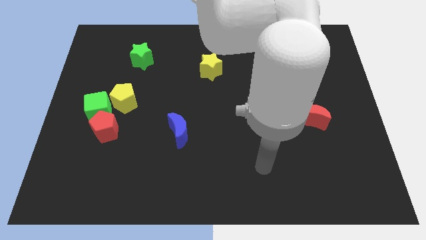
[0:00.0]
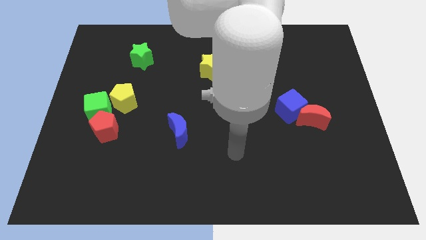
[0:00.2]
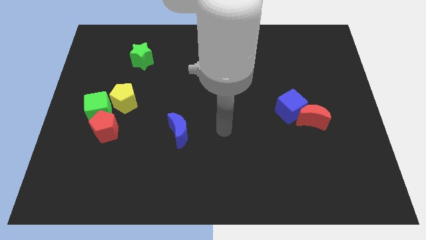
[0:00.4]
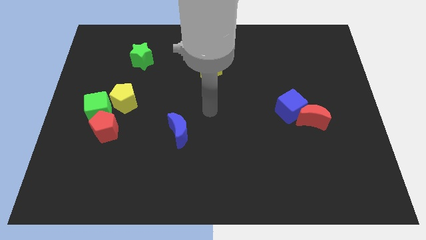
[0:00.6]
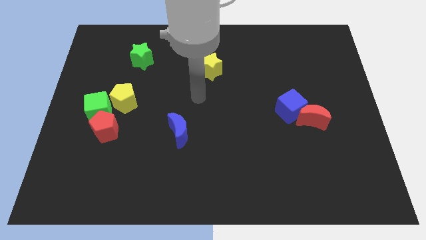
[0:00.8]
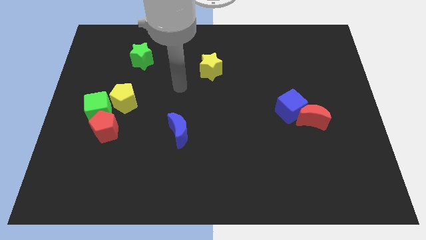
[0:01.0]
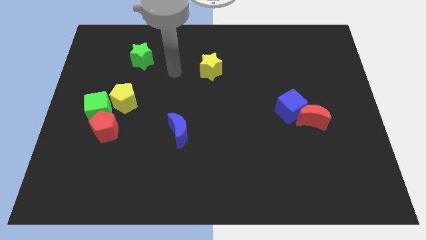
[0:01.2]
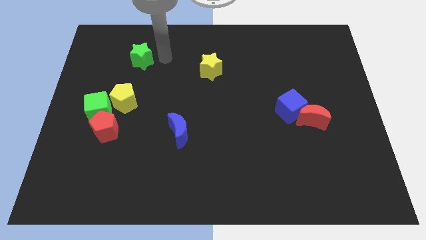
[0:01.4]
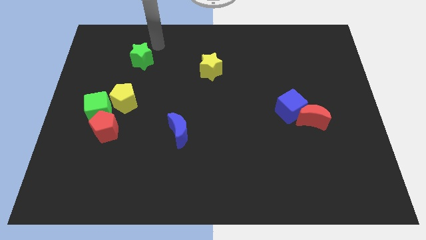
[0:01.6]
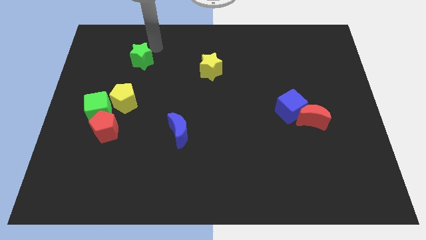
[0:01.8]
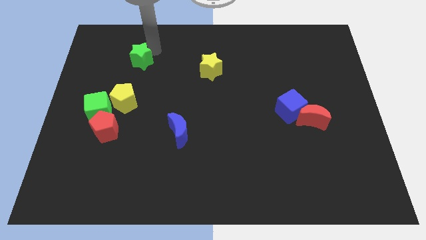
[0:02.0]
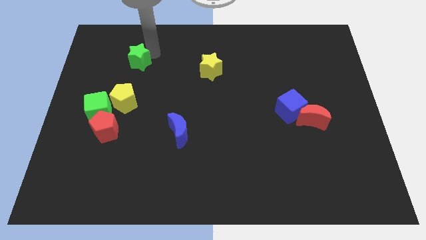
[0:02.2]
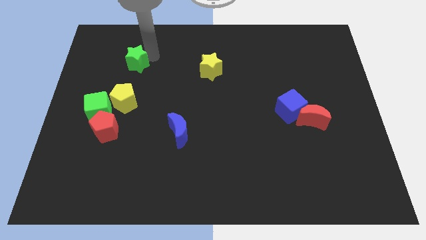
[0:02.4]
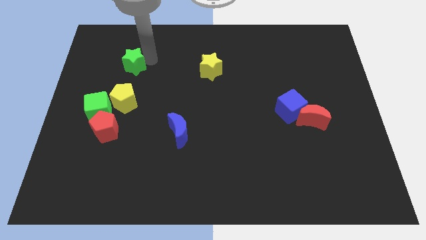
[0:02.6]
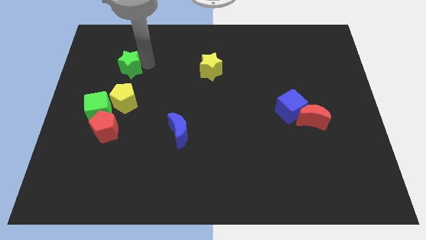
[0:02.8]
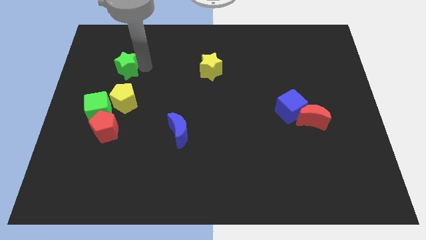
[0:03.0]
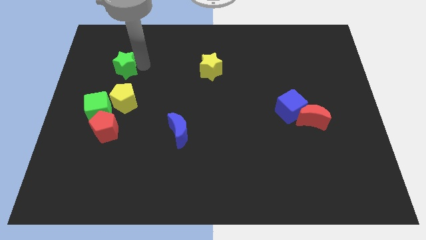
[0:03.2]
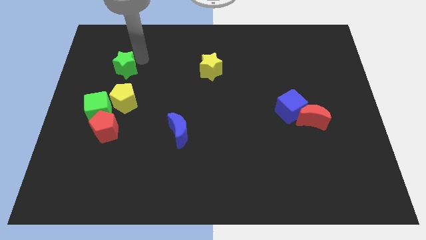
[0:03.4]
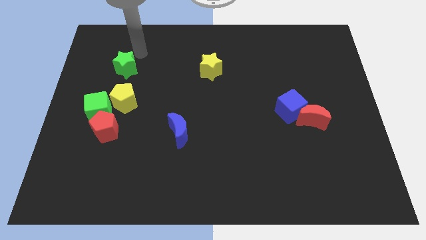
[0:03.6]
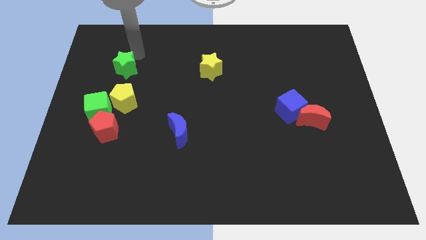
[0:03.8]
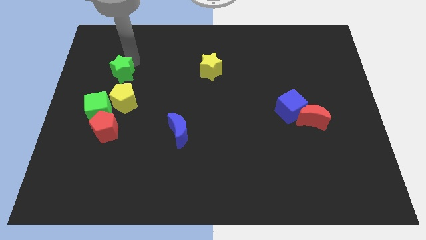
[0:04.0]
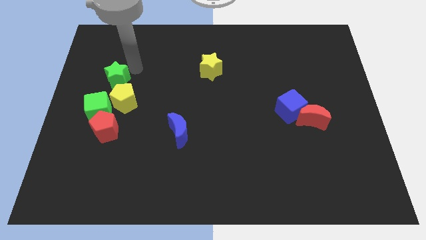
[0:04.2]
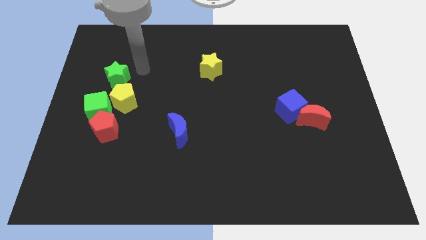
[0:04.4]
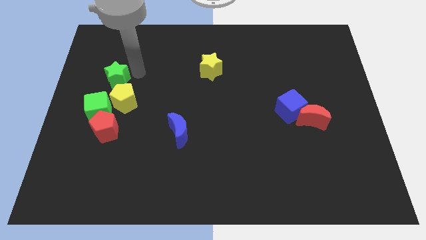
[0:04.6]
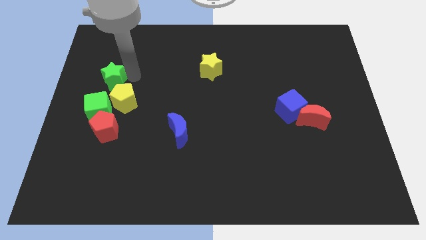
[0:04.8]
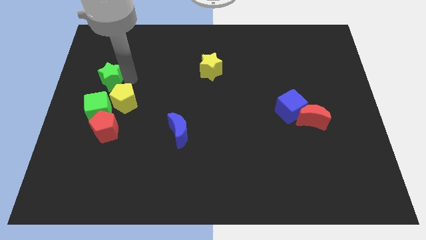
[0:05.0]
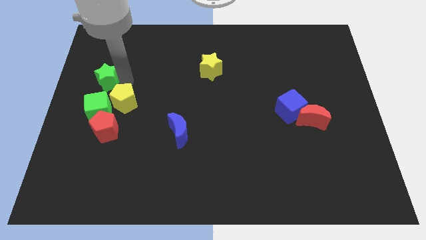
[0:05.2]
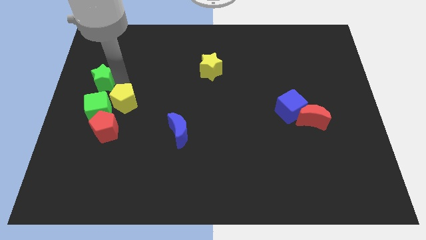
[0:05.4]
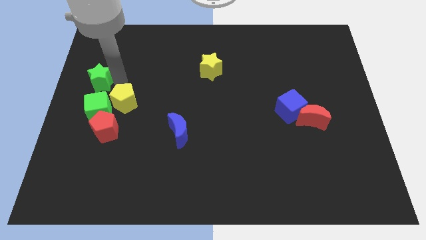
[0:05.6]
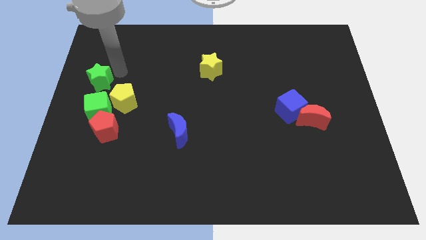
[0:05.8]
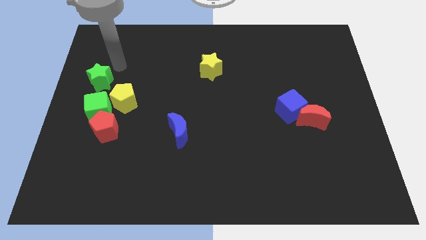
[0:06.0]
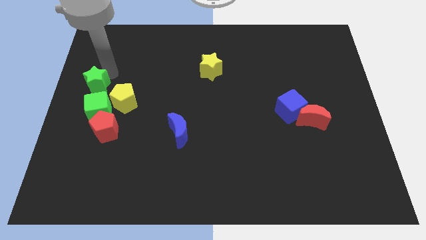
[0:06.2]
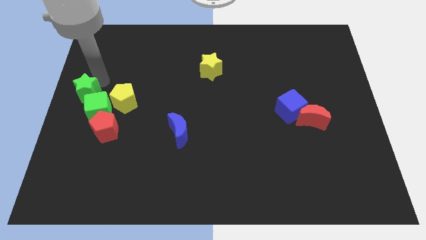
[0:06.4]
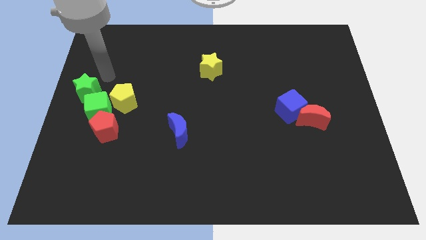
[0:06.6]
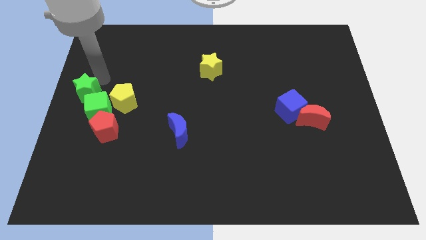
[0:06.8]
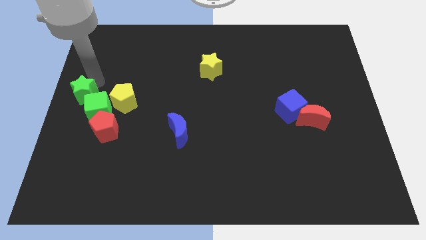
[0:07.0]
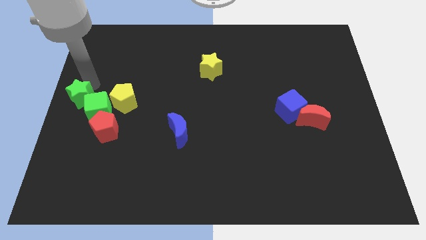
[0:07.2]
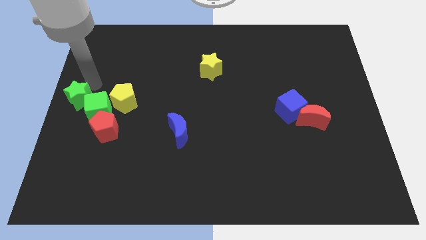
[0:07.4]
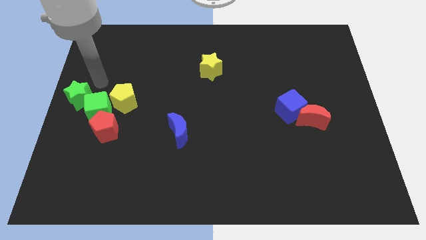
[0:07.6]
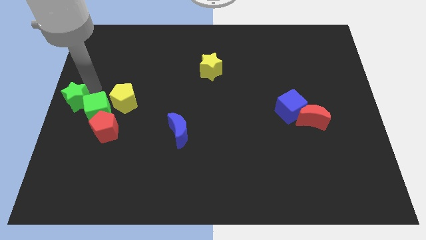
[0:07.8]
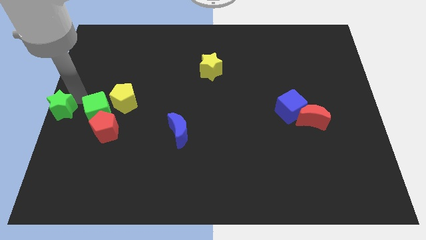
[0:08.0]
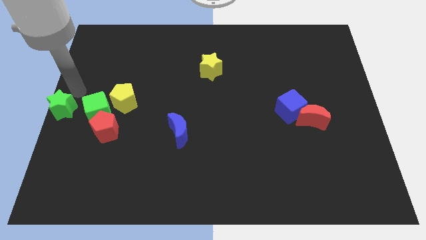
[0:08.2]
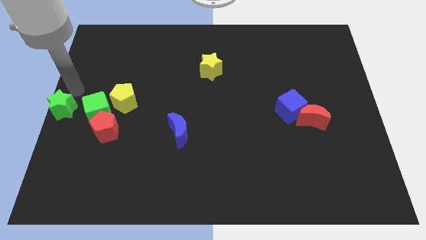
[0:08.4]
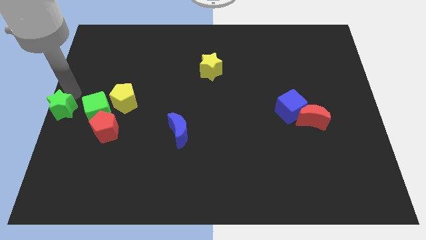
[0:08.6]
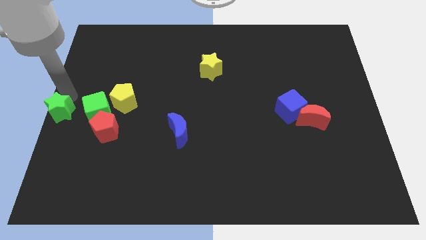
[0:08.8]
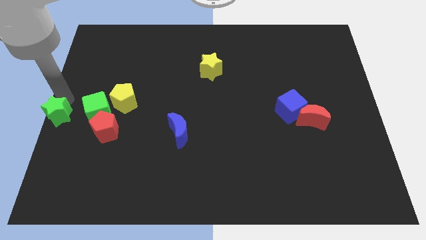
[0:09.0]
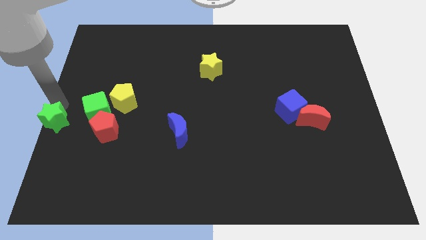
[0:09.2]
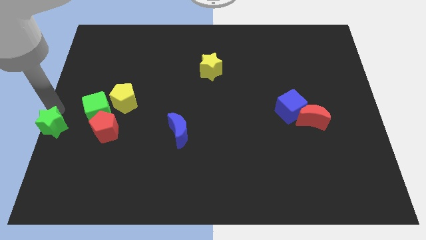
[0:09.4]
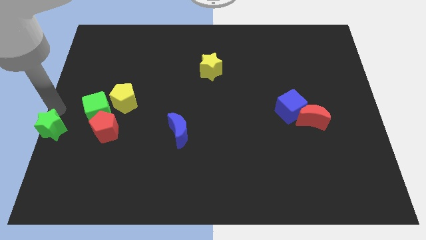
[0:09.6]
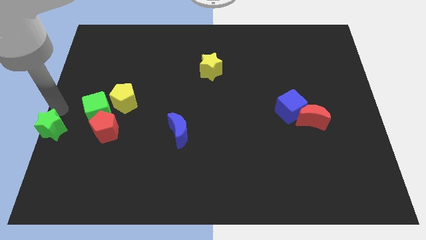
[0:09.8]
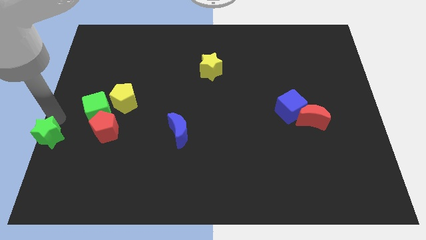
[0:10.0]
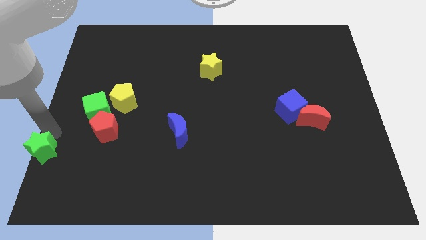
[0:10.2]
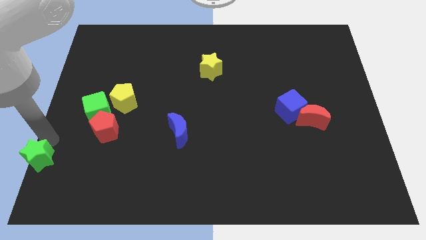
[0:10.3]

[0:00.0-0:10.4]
push the green star to the bottom left of the board
